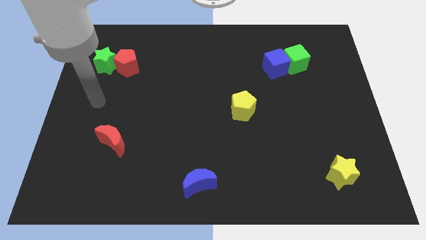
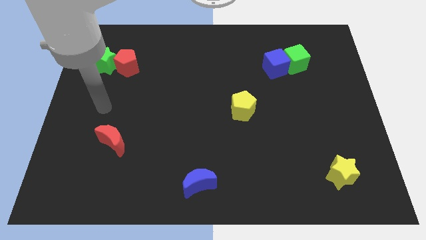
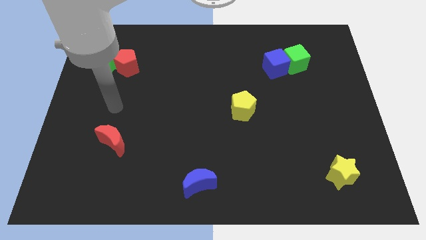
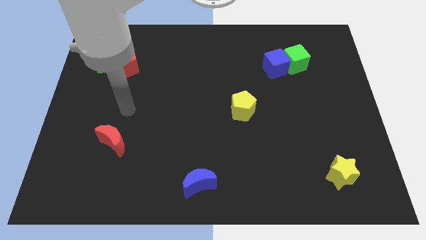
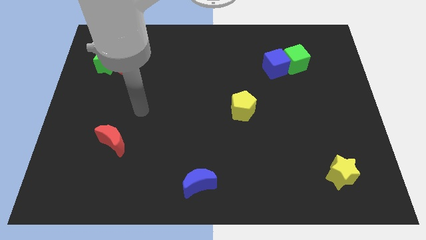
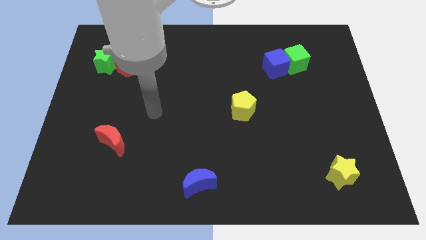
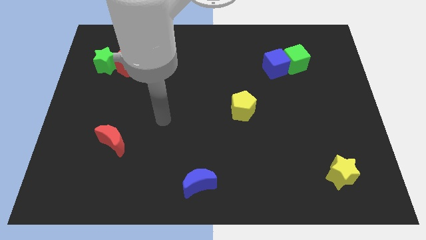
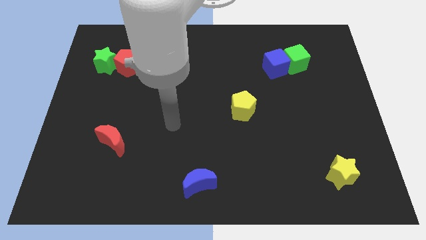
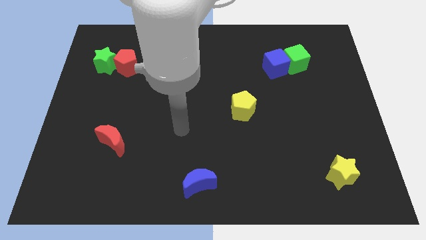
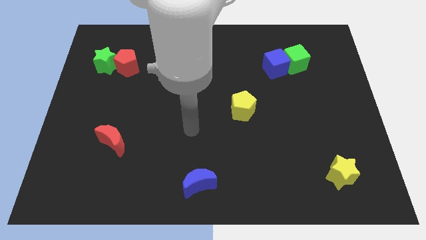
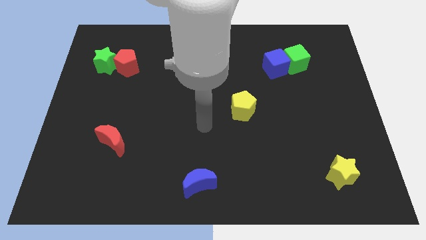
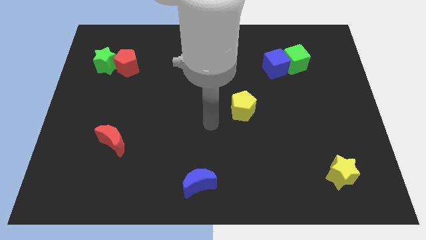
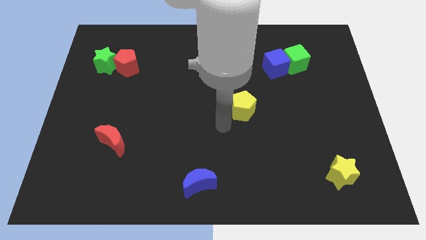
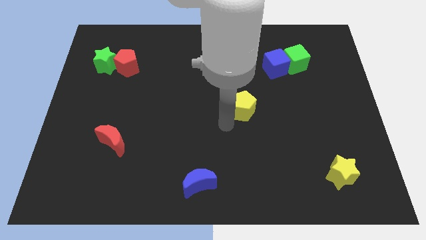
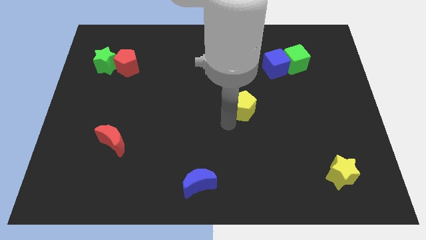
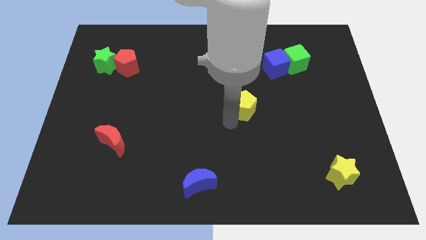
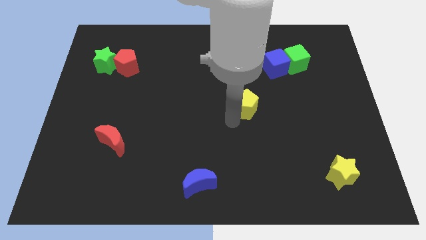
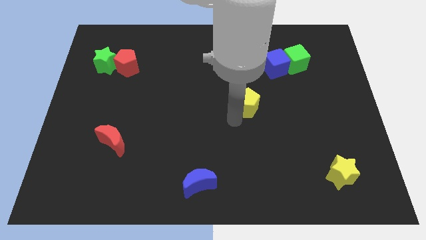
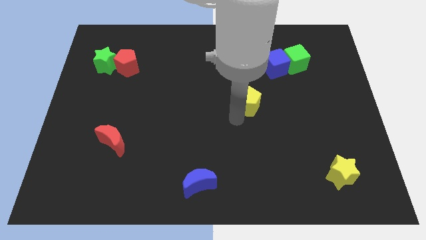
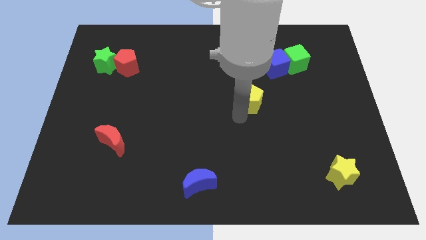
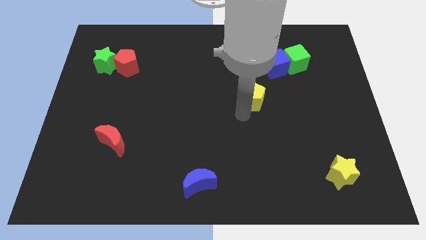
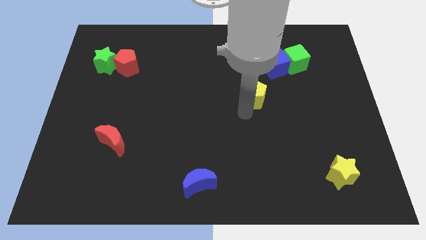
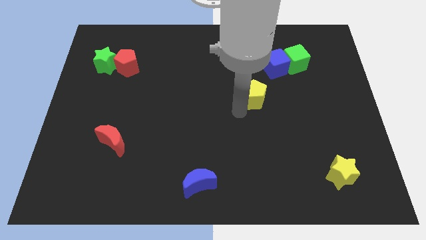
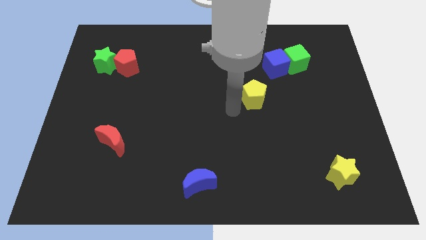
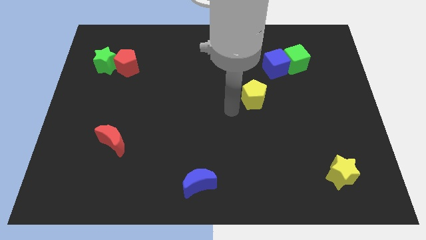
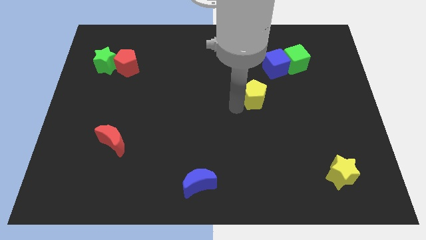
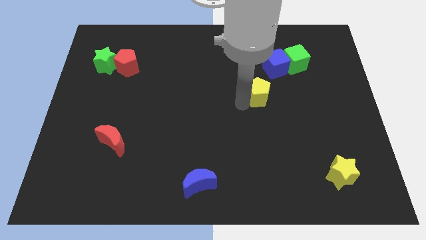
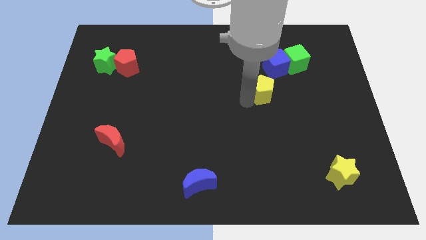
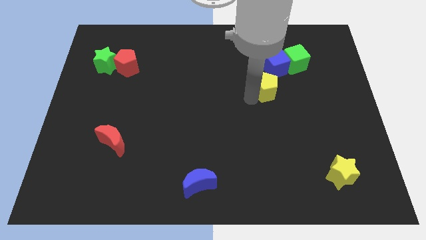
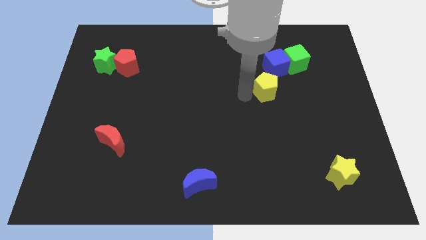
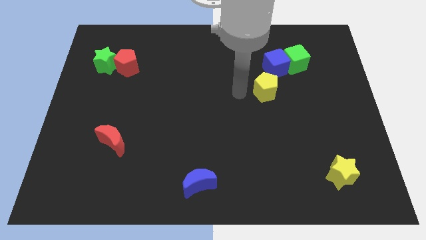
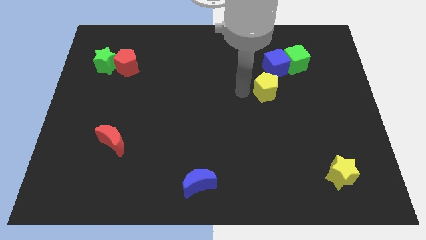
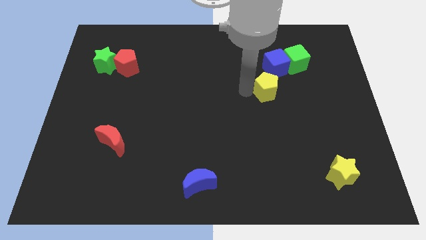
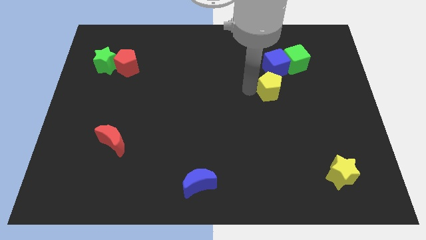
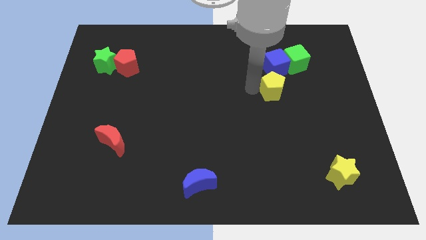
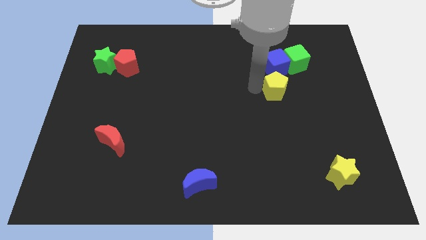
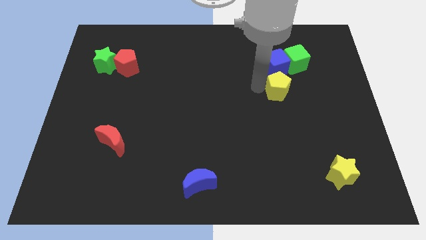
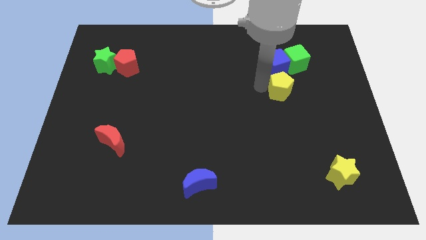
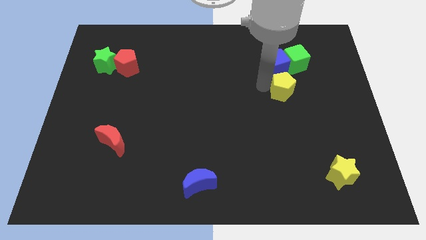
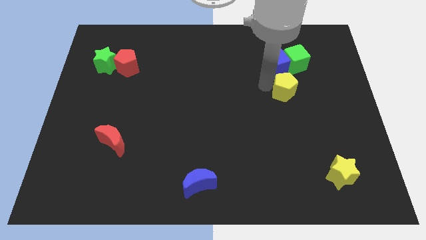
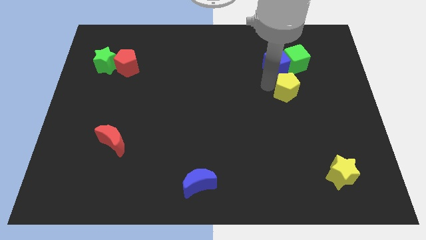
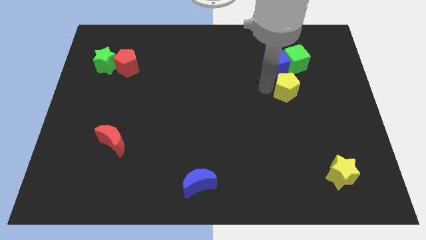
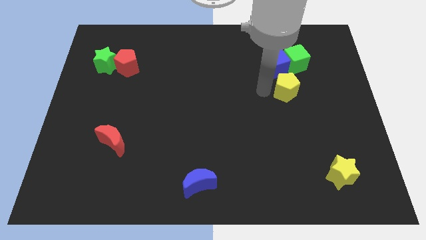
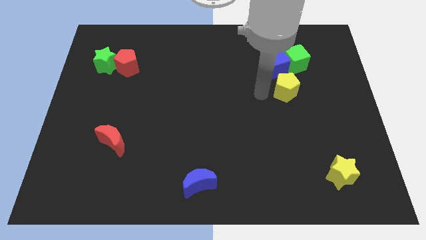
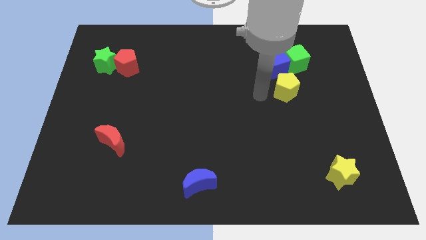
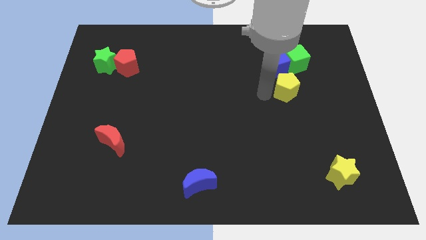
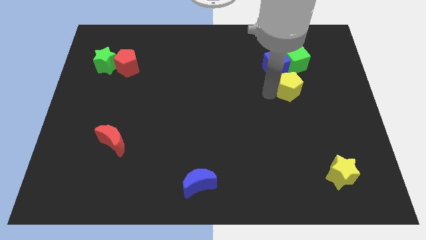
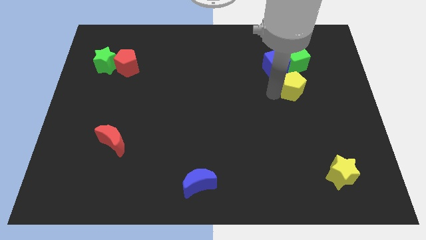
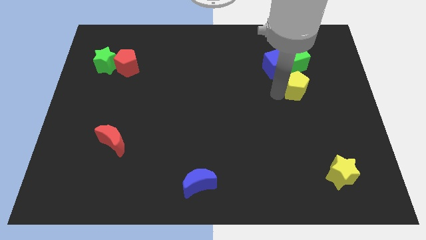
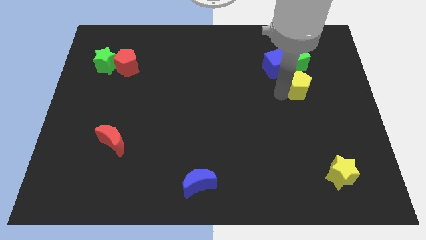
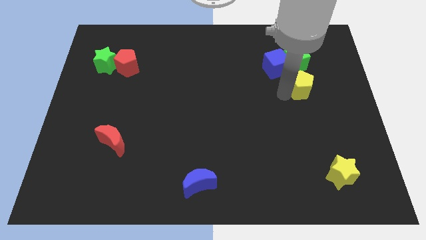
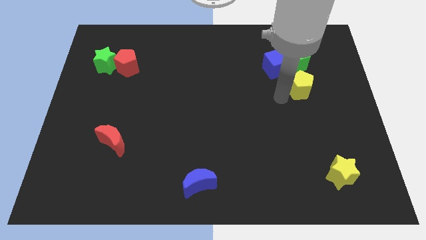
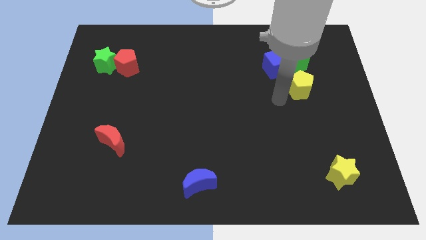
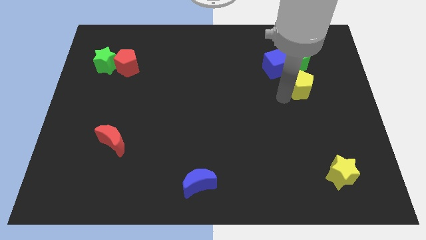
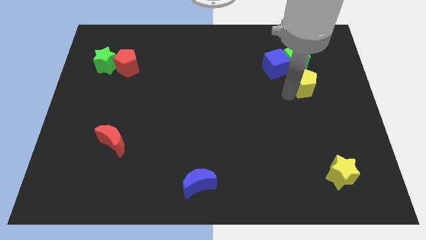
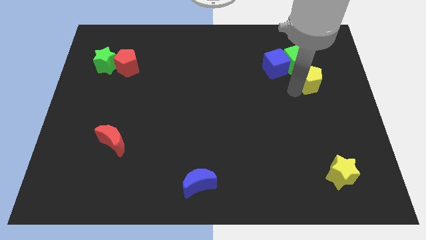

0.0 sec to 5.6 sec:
move the yellow pentagon diagonally down and to the right of the green cube

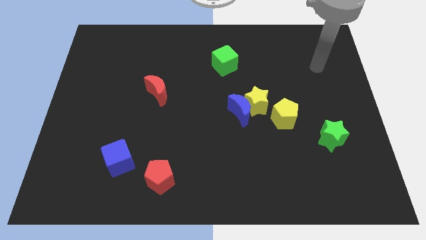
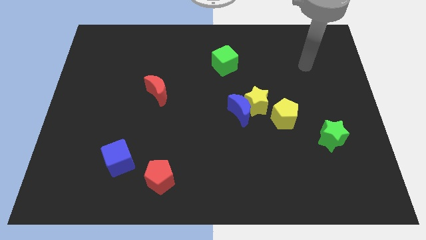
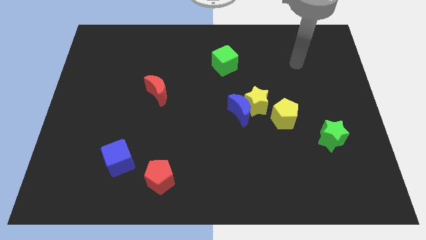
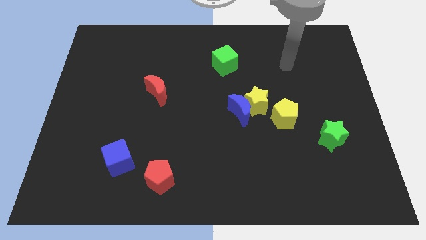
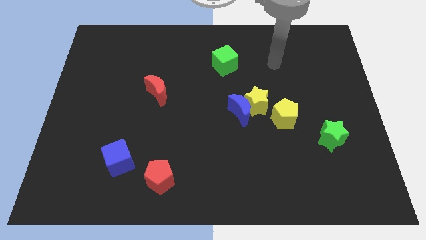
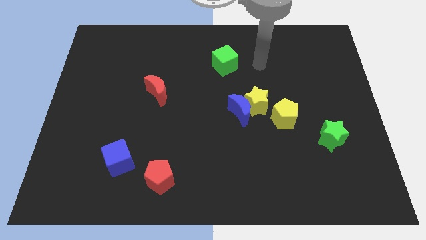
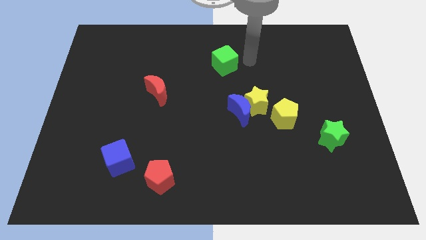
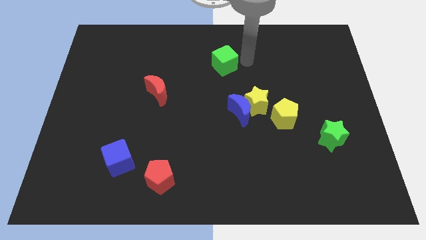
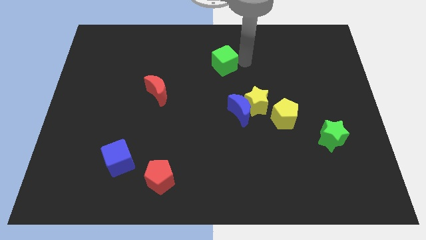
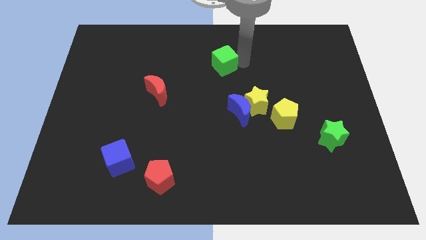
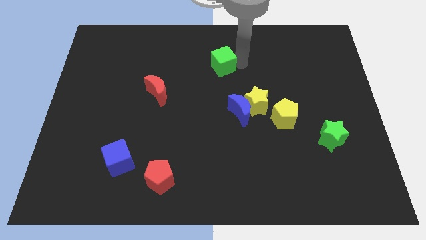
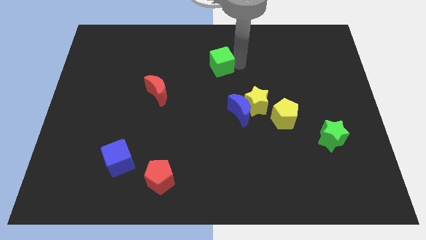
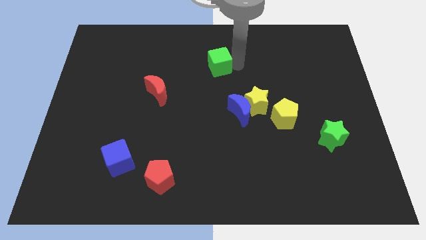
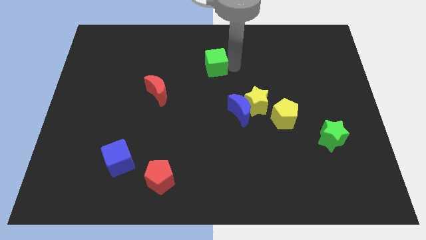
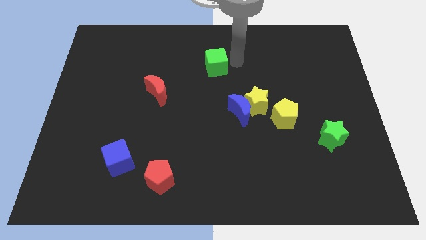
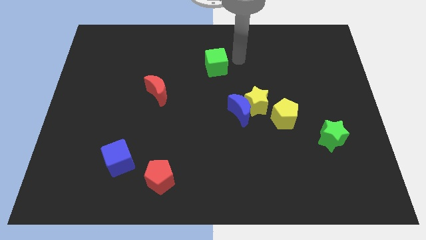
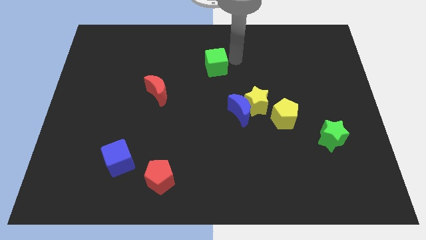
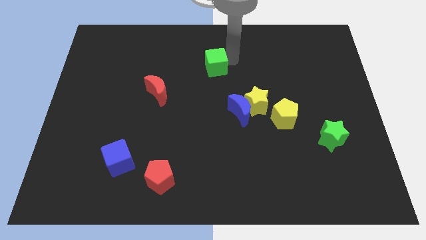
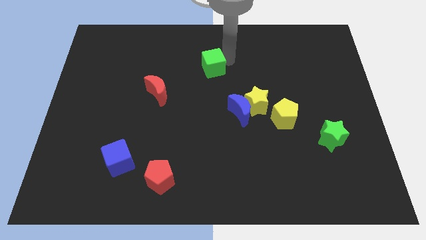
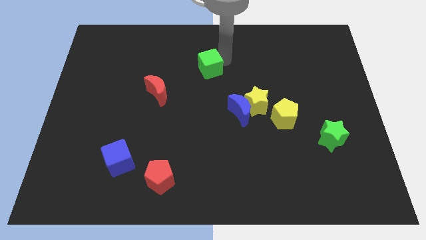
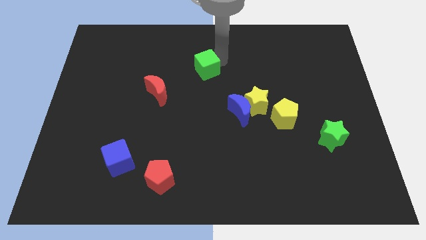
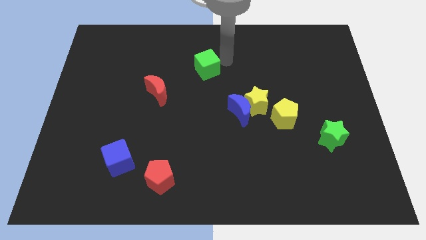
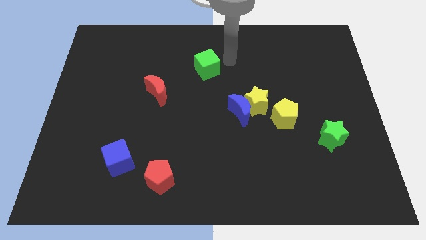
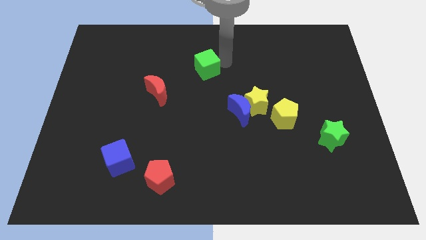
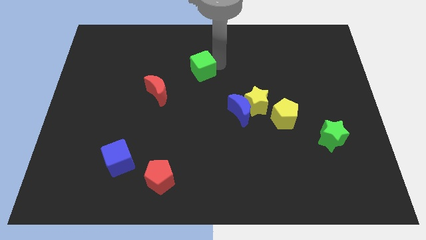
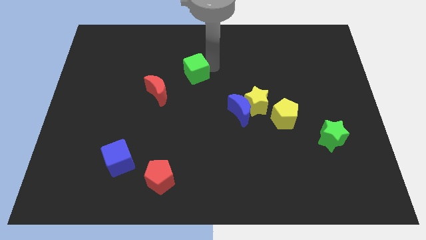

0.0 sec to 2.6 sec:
slide the green cube to the top right side of the red moon

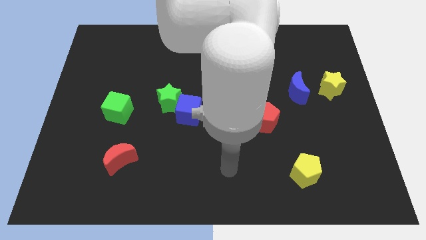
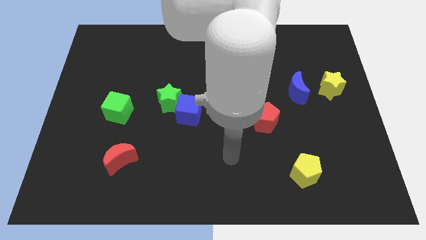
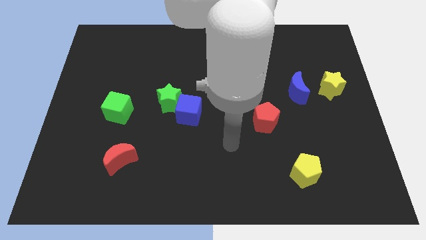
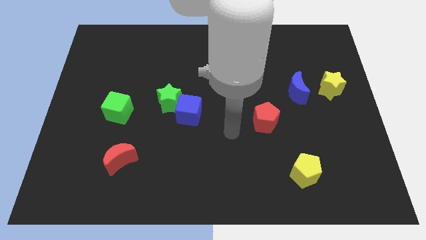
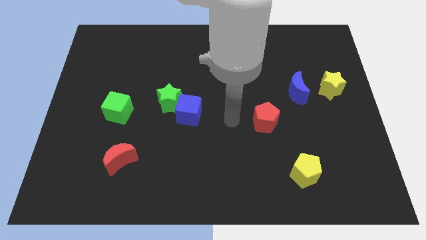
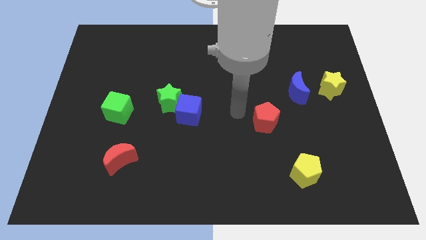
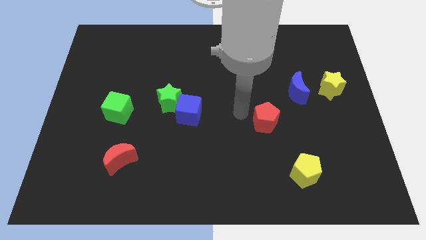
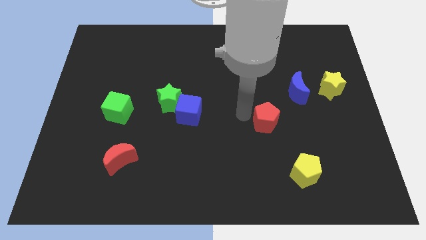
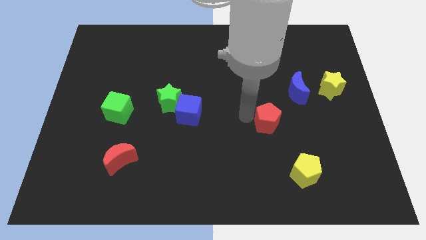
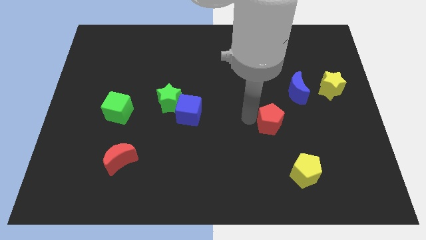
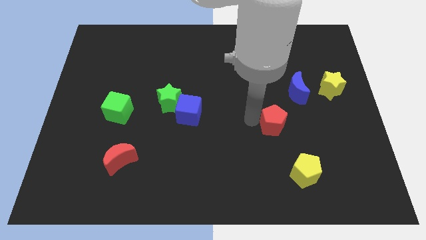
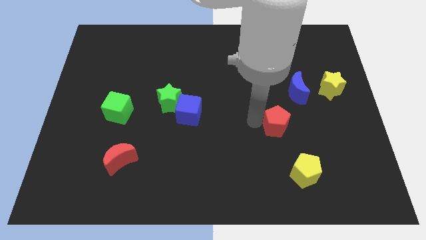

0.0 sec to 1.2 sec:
push the red pentagon to the top side of the yellow pentagon
